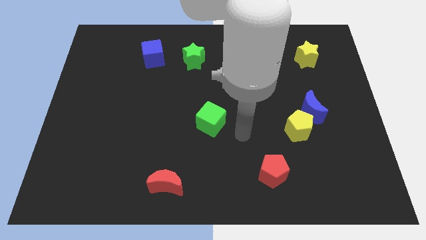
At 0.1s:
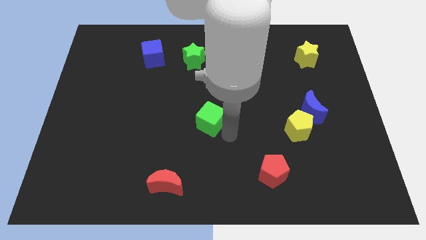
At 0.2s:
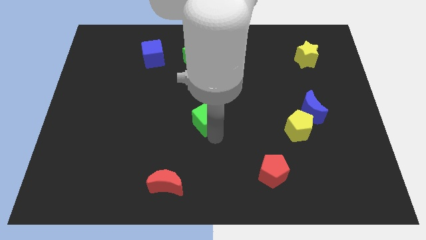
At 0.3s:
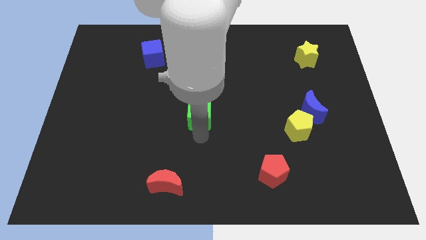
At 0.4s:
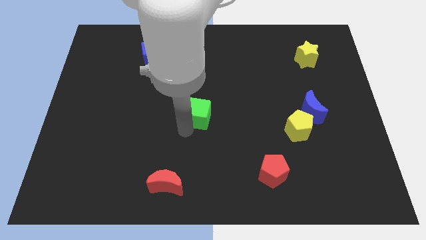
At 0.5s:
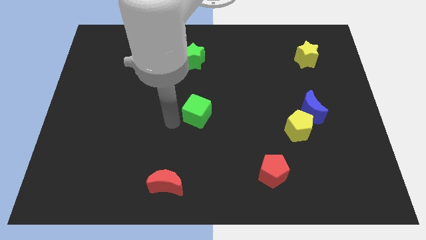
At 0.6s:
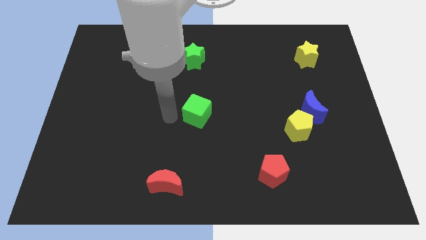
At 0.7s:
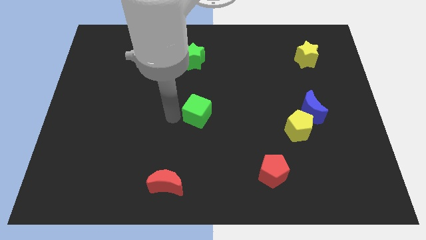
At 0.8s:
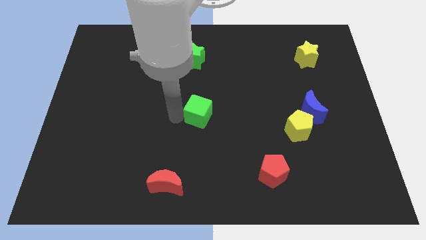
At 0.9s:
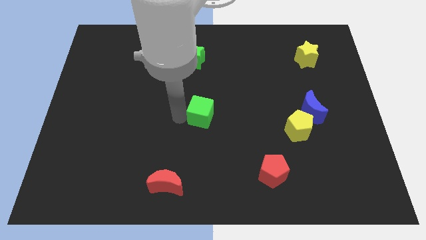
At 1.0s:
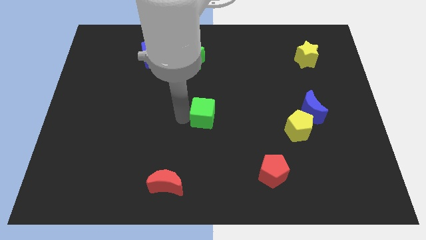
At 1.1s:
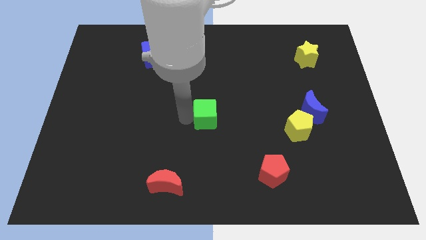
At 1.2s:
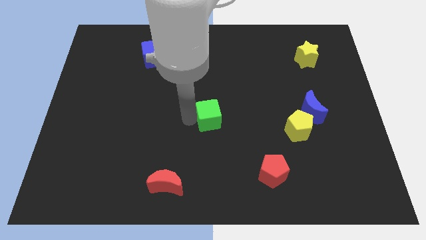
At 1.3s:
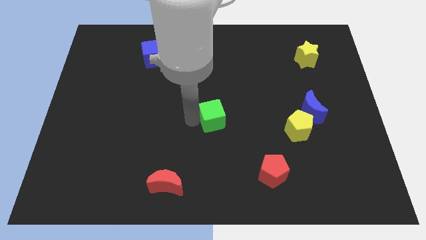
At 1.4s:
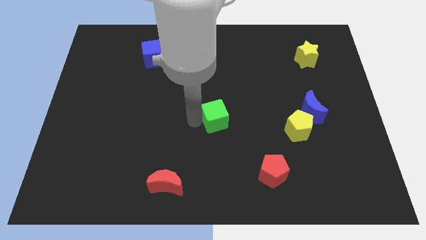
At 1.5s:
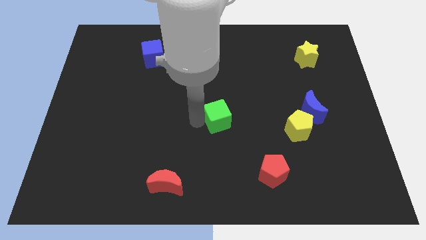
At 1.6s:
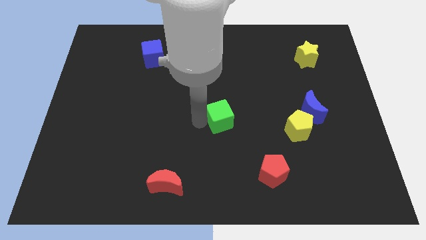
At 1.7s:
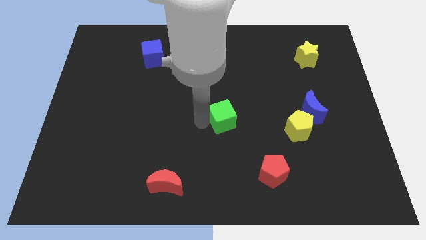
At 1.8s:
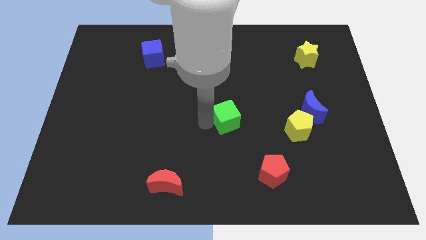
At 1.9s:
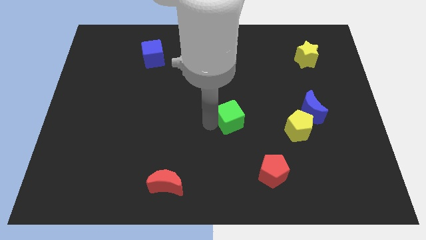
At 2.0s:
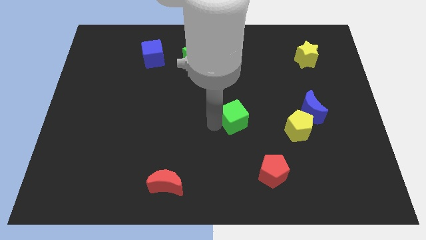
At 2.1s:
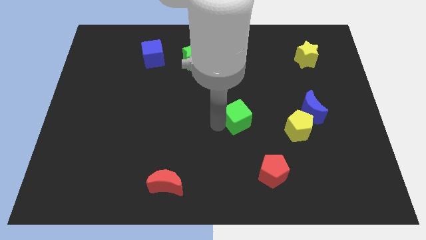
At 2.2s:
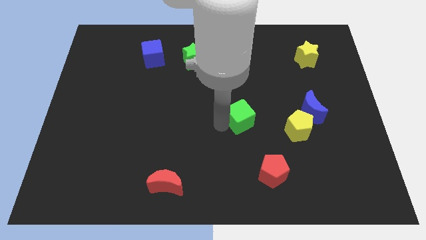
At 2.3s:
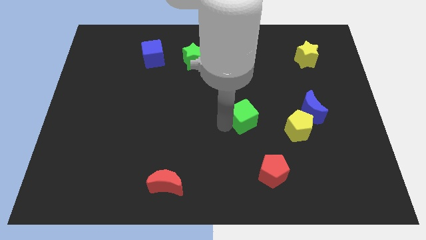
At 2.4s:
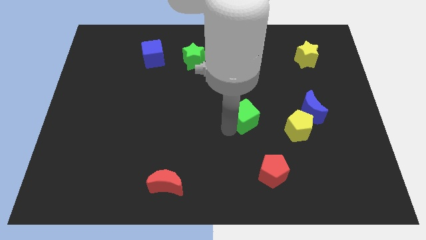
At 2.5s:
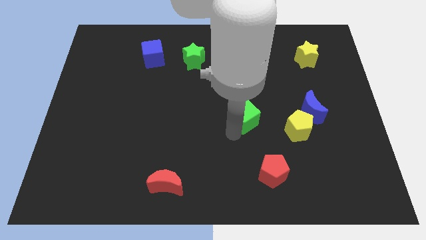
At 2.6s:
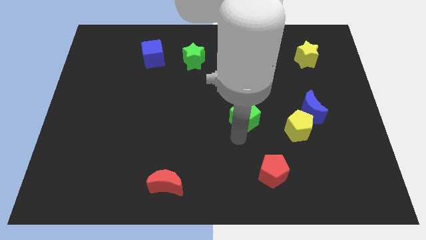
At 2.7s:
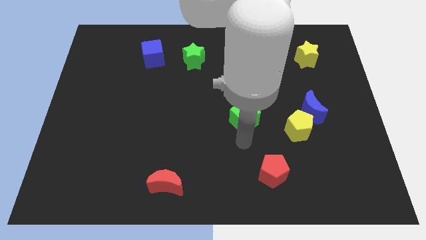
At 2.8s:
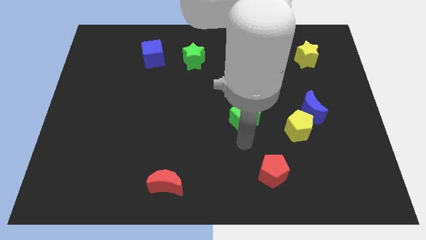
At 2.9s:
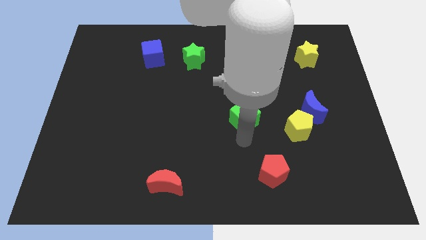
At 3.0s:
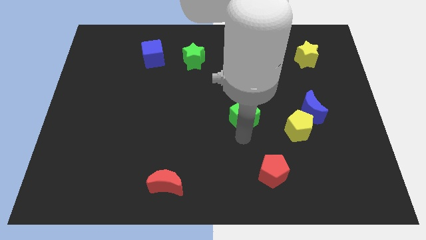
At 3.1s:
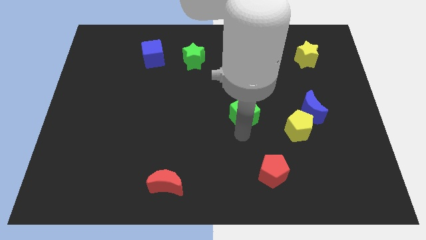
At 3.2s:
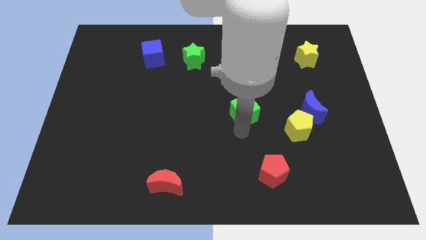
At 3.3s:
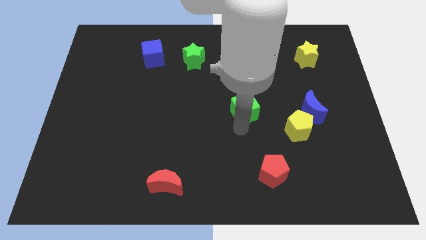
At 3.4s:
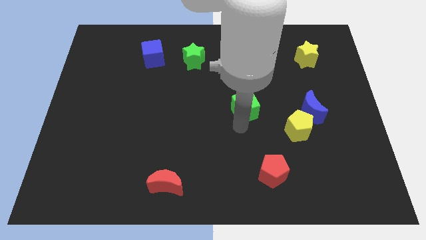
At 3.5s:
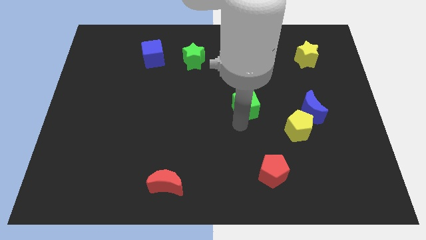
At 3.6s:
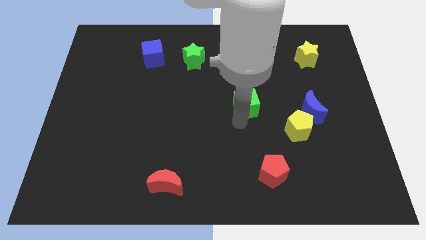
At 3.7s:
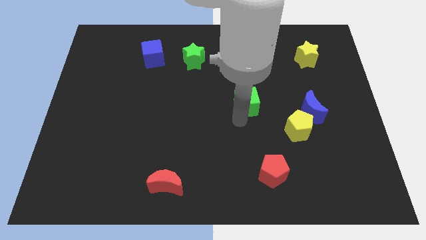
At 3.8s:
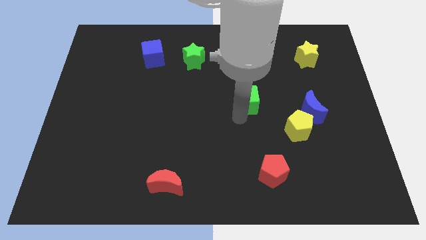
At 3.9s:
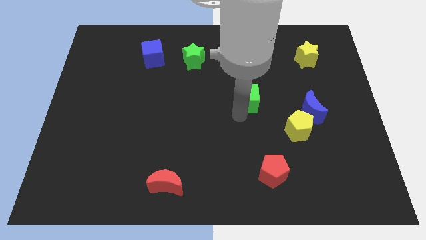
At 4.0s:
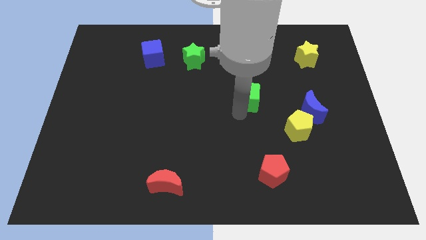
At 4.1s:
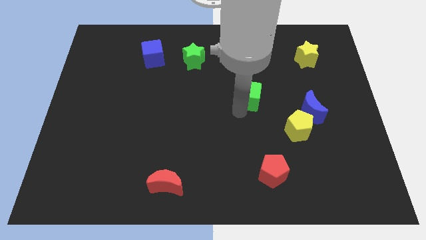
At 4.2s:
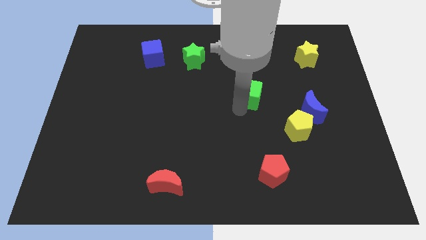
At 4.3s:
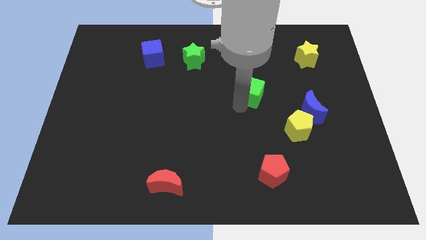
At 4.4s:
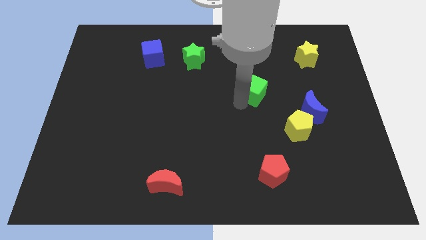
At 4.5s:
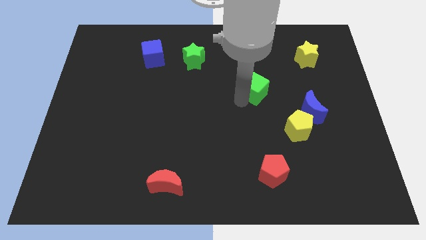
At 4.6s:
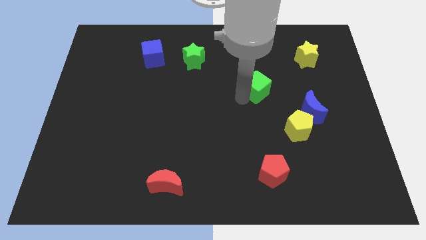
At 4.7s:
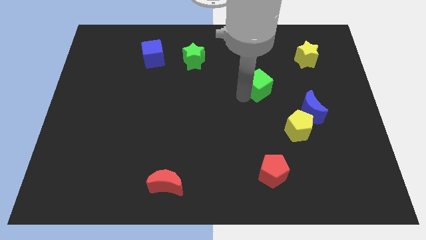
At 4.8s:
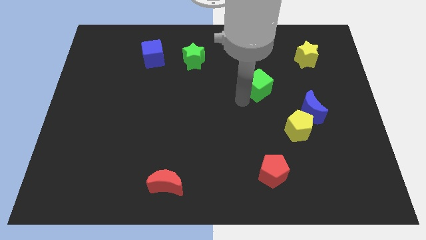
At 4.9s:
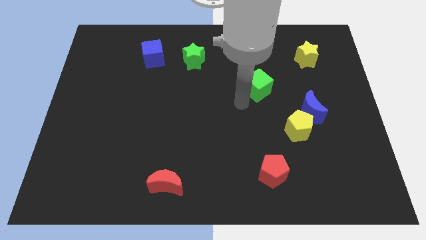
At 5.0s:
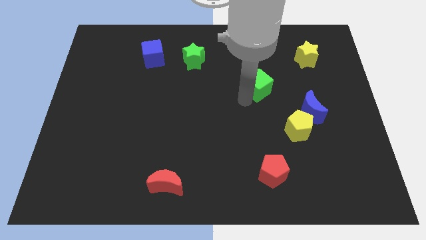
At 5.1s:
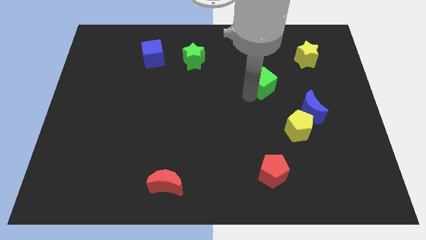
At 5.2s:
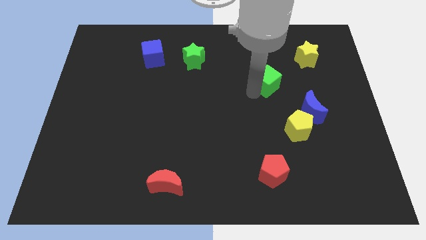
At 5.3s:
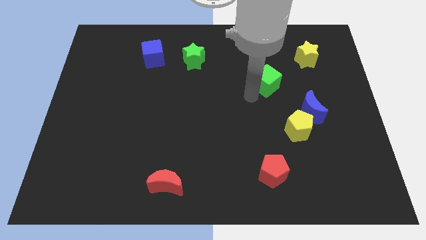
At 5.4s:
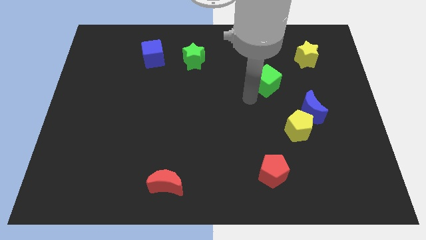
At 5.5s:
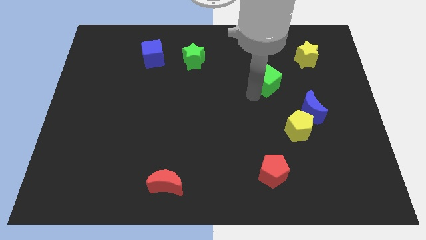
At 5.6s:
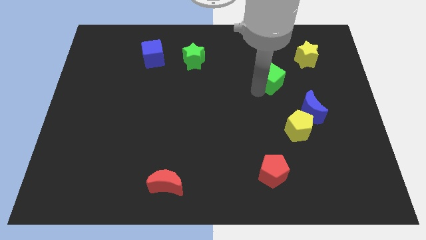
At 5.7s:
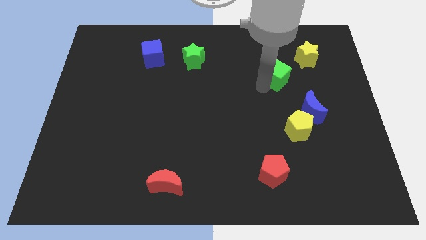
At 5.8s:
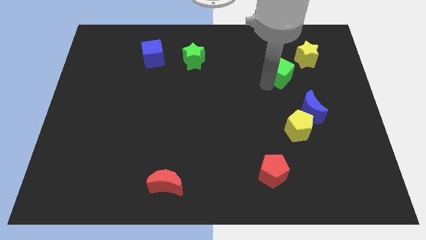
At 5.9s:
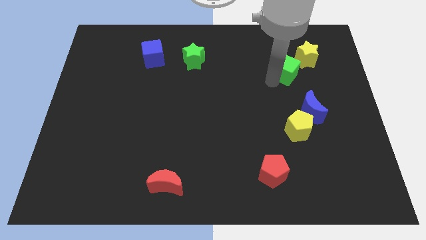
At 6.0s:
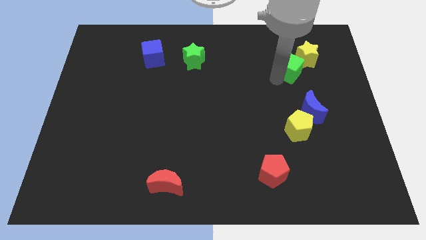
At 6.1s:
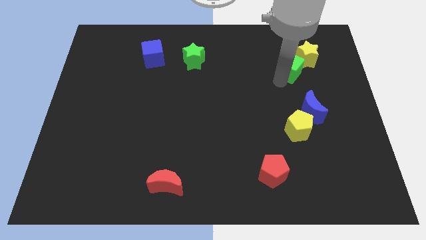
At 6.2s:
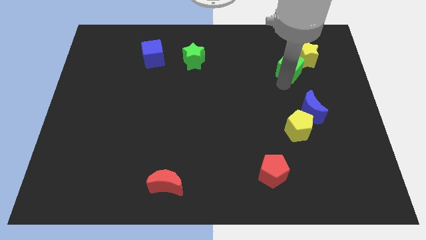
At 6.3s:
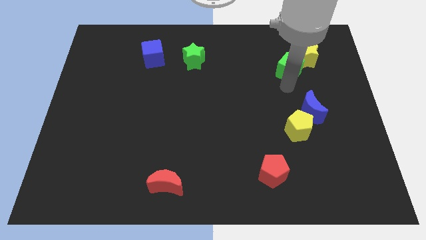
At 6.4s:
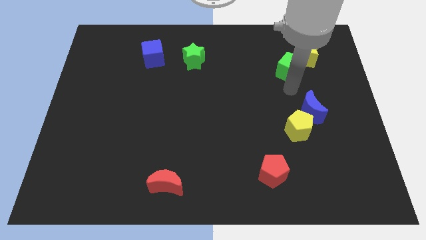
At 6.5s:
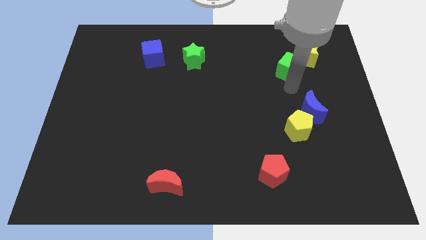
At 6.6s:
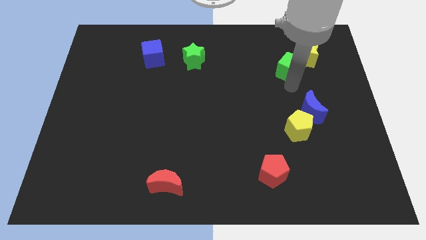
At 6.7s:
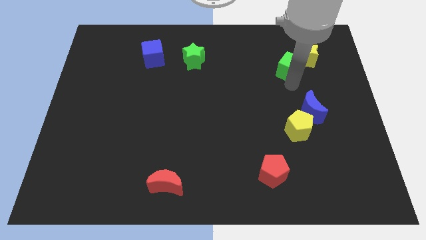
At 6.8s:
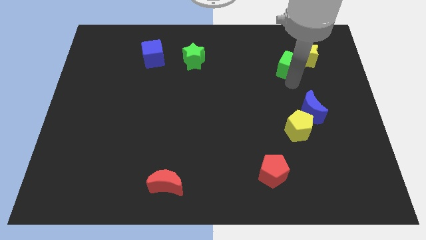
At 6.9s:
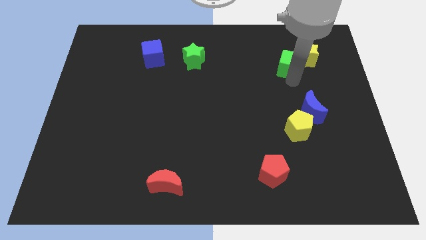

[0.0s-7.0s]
slide the green cube next to the yellow star
